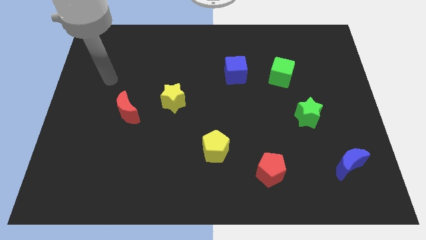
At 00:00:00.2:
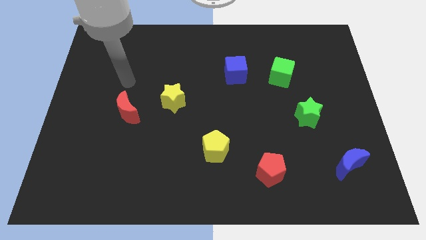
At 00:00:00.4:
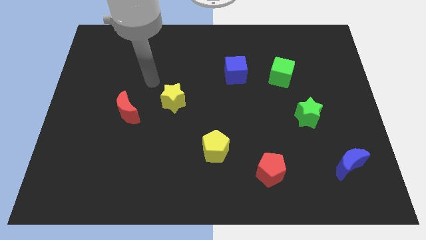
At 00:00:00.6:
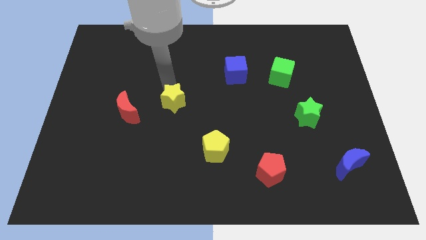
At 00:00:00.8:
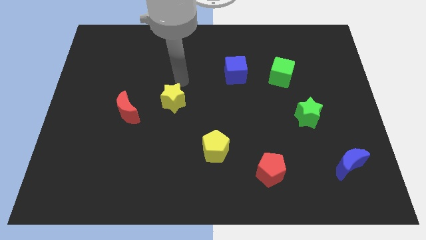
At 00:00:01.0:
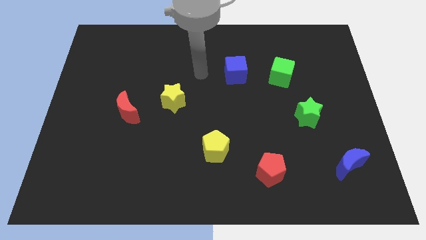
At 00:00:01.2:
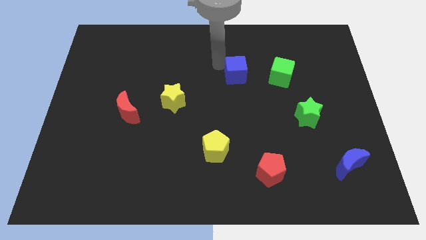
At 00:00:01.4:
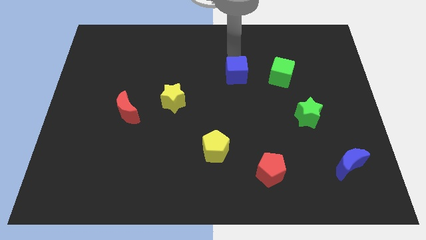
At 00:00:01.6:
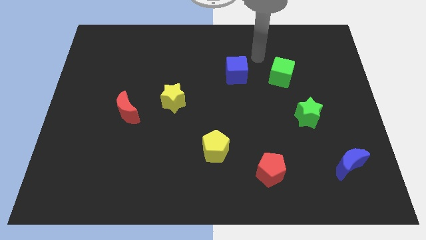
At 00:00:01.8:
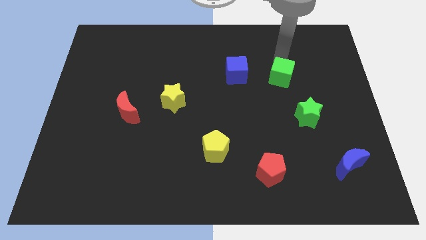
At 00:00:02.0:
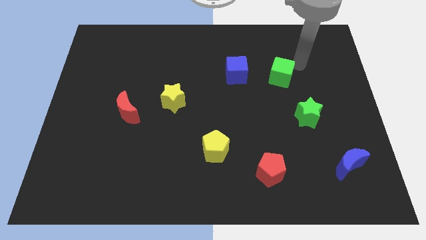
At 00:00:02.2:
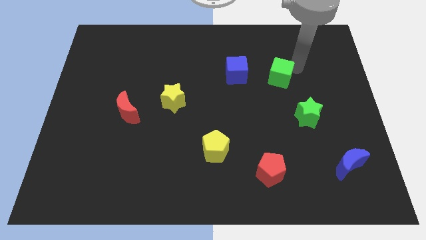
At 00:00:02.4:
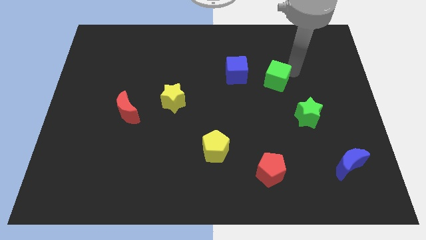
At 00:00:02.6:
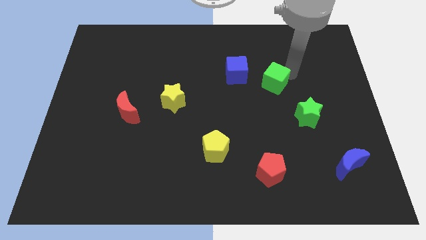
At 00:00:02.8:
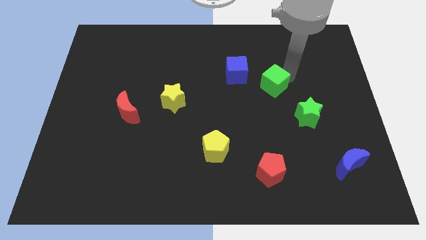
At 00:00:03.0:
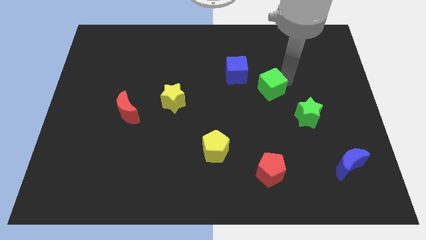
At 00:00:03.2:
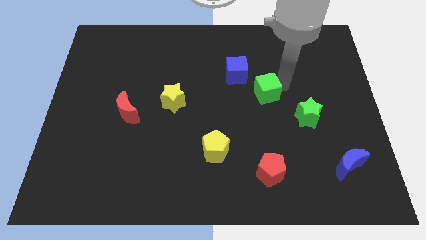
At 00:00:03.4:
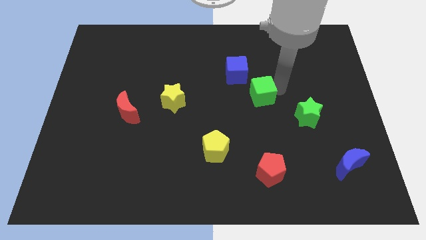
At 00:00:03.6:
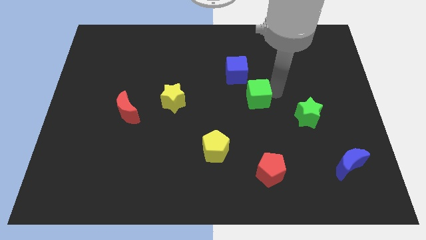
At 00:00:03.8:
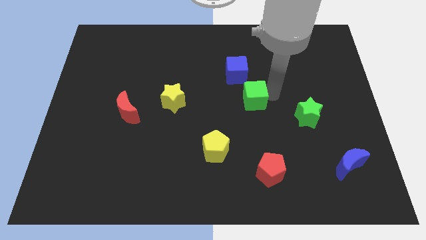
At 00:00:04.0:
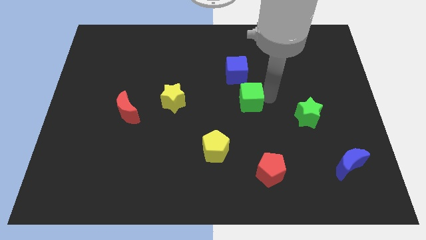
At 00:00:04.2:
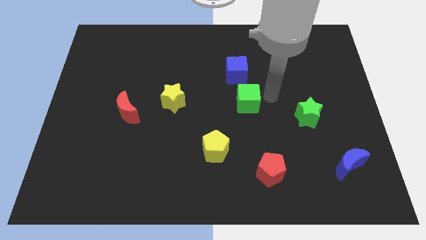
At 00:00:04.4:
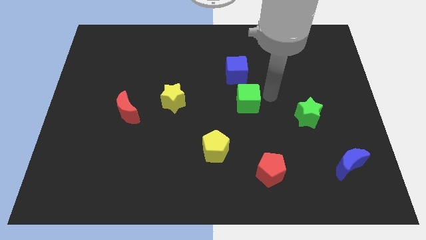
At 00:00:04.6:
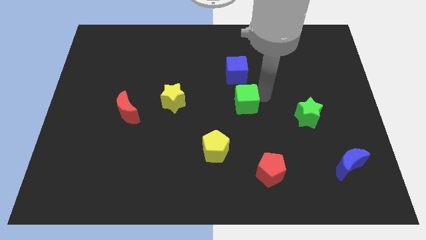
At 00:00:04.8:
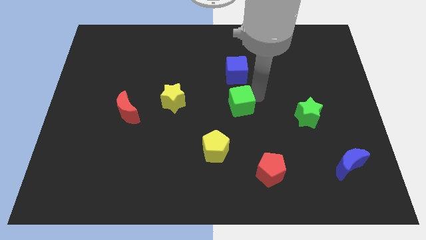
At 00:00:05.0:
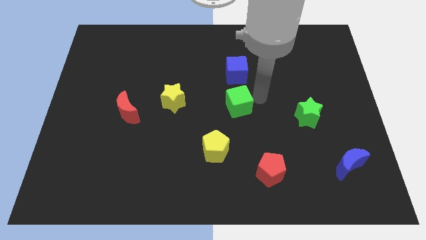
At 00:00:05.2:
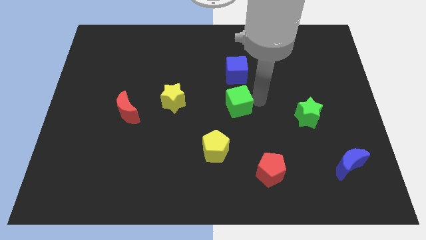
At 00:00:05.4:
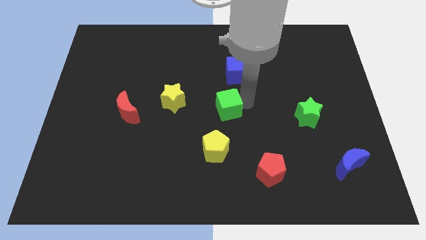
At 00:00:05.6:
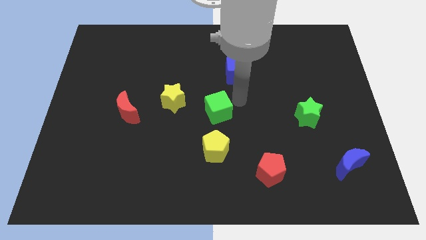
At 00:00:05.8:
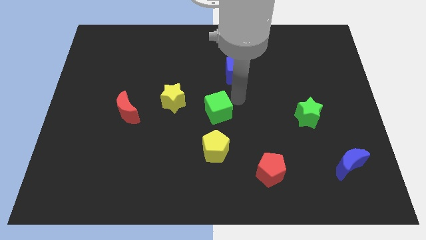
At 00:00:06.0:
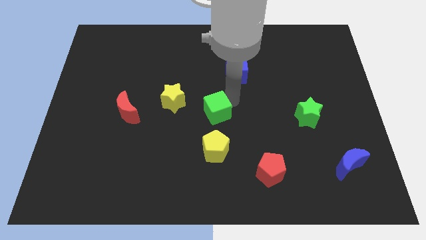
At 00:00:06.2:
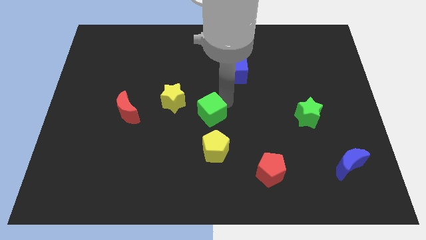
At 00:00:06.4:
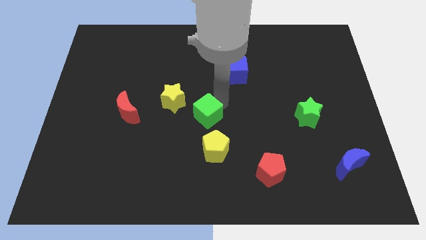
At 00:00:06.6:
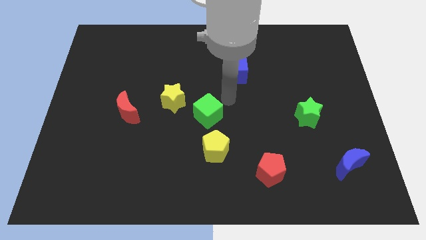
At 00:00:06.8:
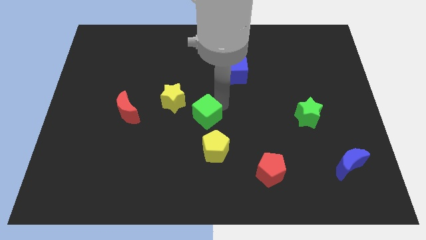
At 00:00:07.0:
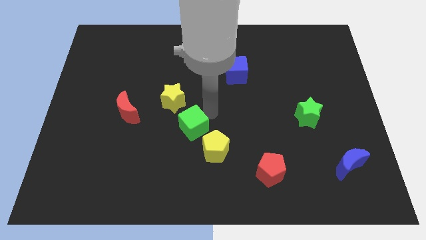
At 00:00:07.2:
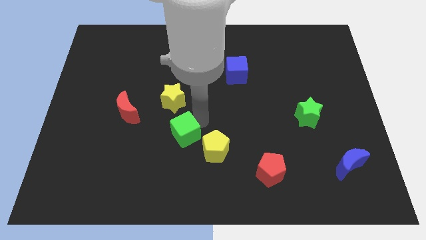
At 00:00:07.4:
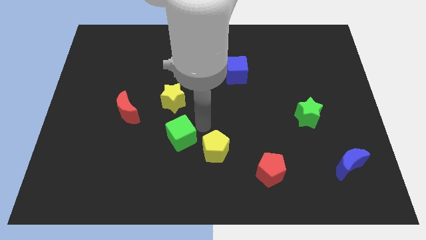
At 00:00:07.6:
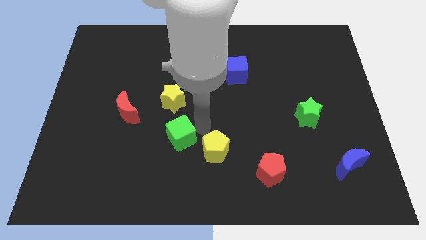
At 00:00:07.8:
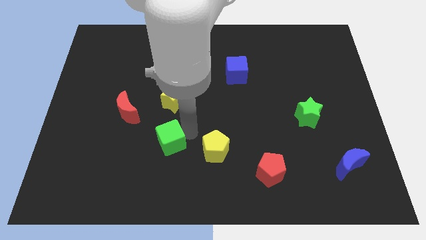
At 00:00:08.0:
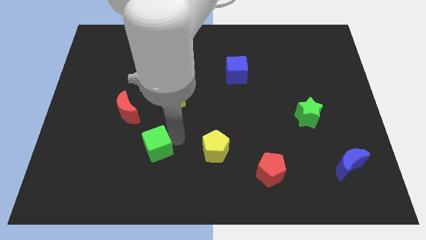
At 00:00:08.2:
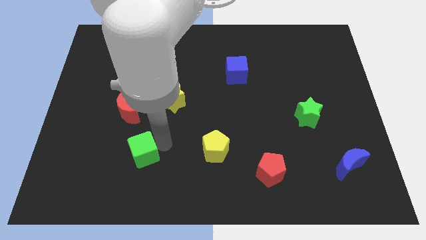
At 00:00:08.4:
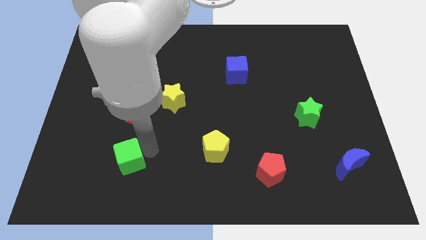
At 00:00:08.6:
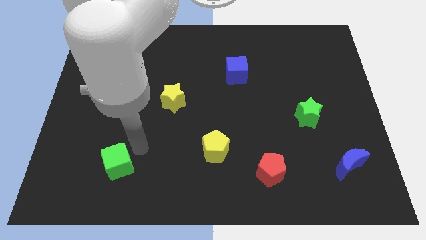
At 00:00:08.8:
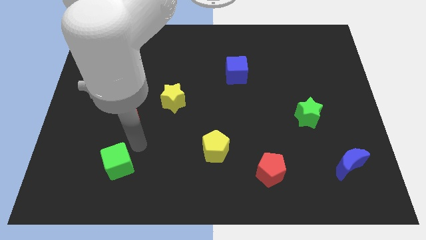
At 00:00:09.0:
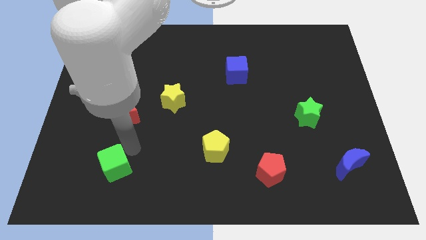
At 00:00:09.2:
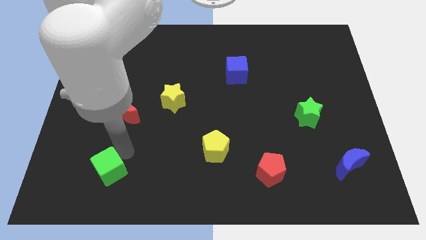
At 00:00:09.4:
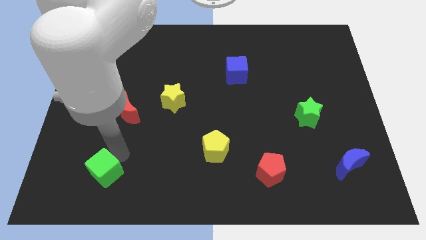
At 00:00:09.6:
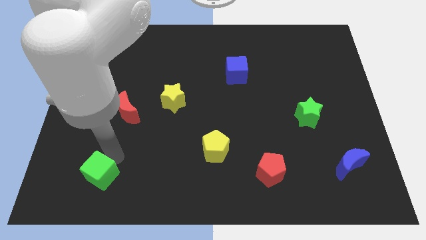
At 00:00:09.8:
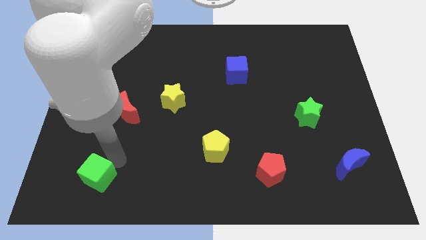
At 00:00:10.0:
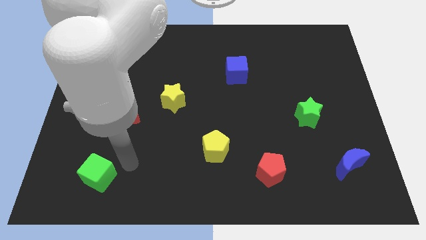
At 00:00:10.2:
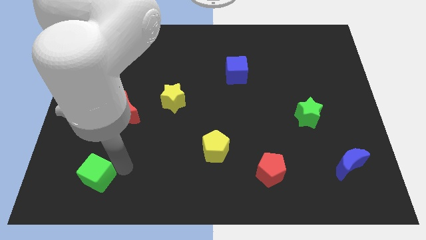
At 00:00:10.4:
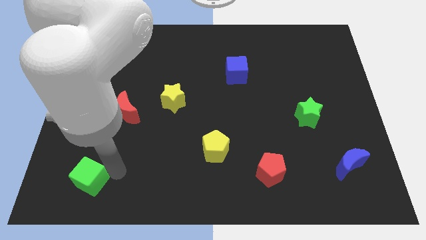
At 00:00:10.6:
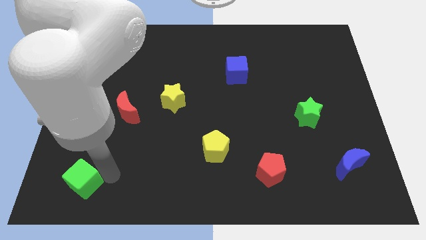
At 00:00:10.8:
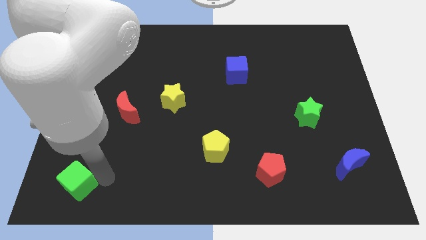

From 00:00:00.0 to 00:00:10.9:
move the green cube to the bottom left of the board

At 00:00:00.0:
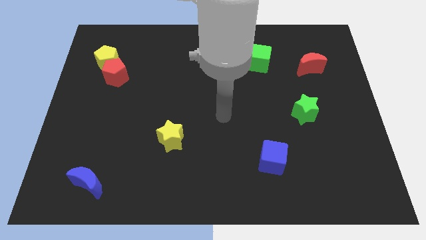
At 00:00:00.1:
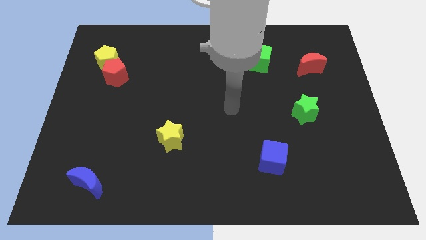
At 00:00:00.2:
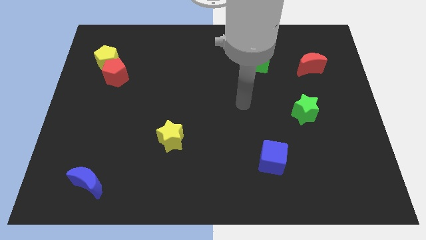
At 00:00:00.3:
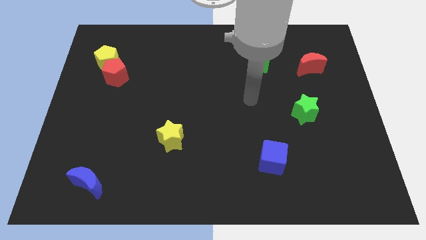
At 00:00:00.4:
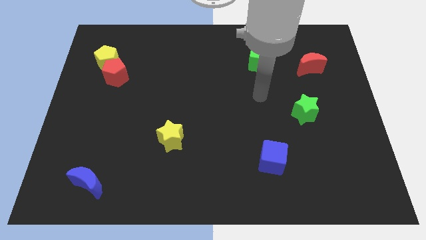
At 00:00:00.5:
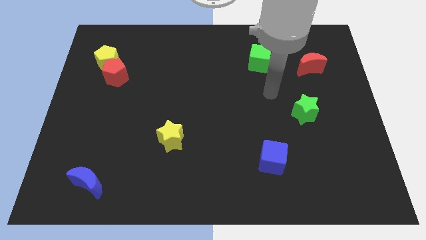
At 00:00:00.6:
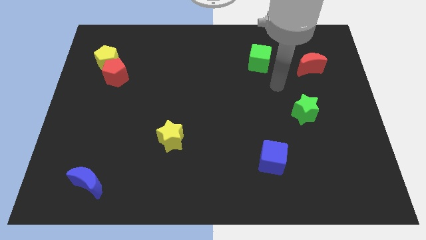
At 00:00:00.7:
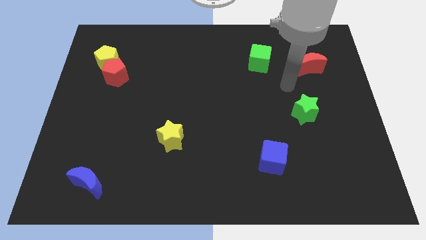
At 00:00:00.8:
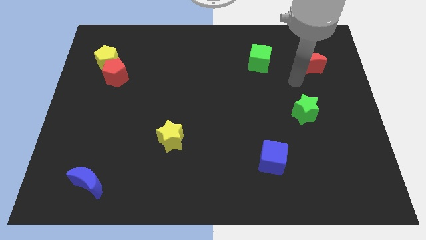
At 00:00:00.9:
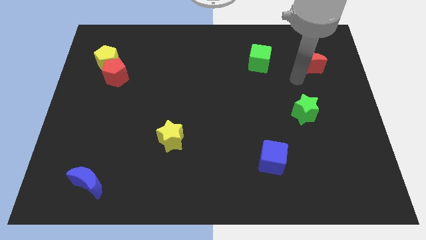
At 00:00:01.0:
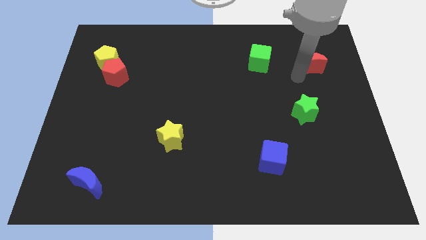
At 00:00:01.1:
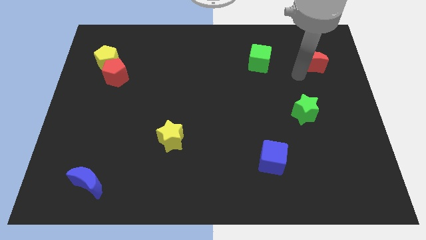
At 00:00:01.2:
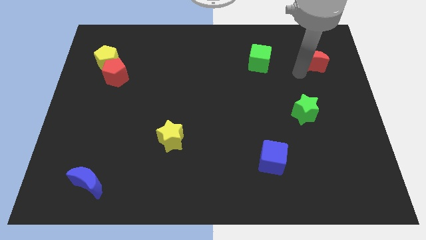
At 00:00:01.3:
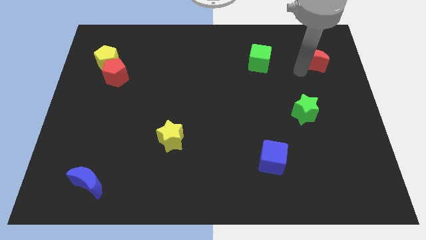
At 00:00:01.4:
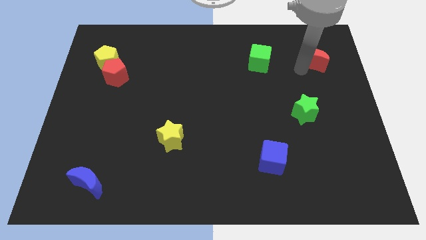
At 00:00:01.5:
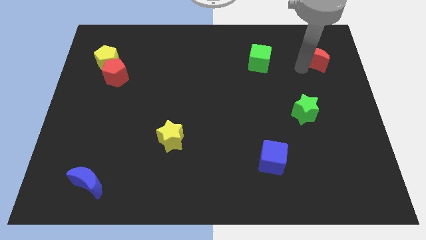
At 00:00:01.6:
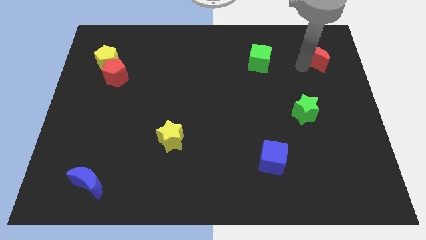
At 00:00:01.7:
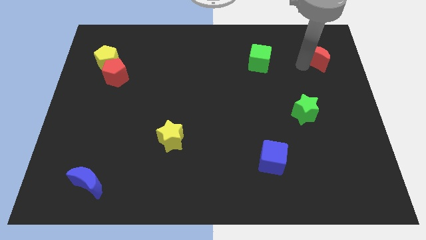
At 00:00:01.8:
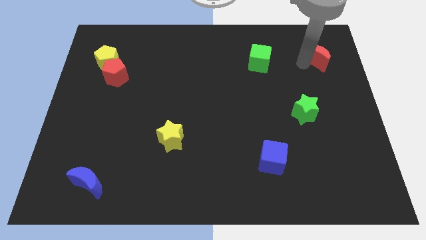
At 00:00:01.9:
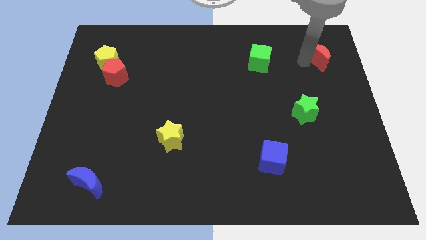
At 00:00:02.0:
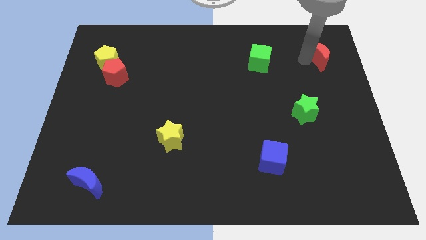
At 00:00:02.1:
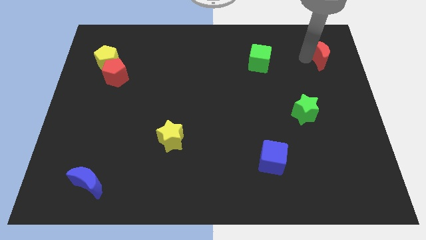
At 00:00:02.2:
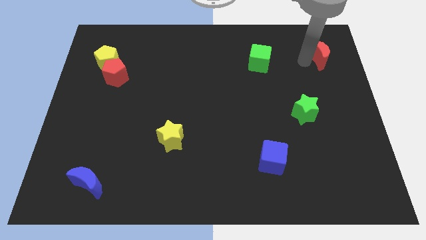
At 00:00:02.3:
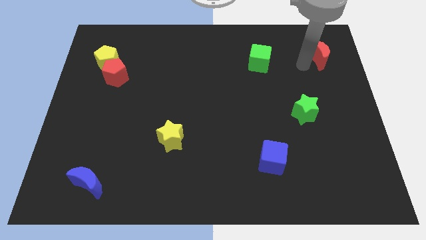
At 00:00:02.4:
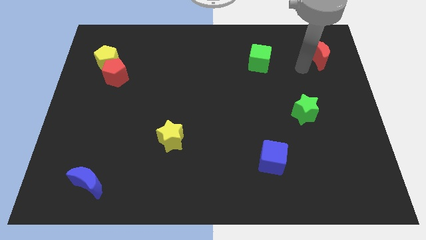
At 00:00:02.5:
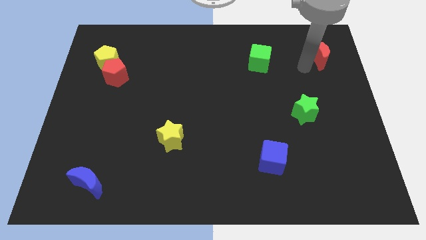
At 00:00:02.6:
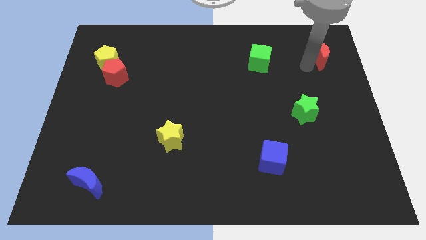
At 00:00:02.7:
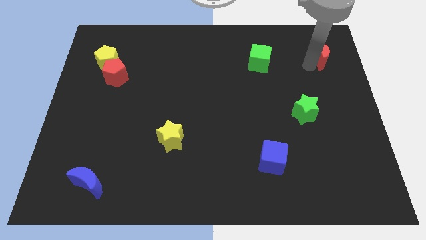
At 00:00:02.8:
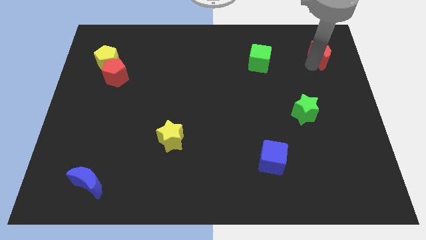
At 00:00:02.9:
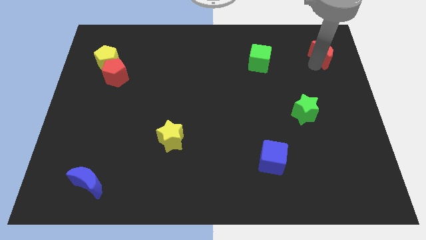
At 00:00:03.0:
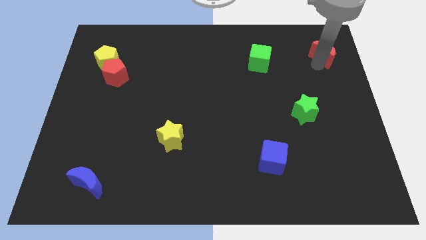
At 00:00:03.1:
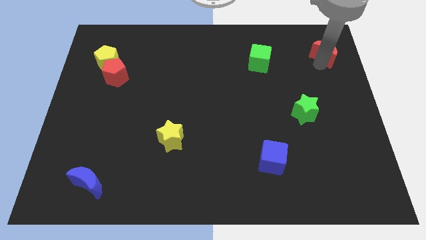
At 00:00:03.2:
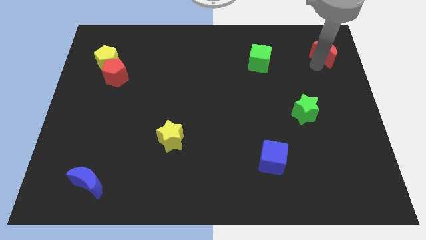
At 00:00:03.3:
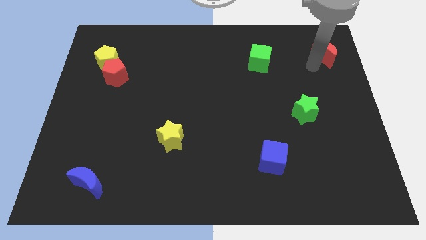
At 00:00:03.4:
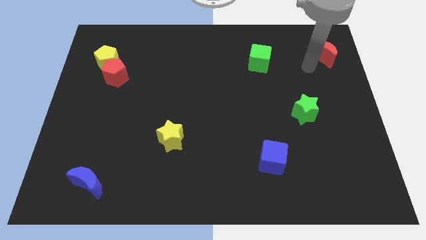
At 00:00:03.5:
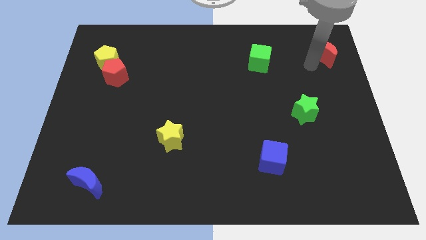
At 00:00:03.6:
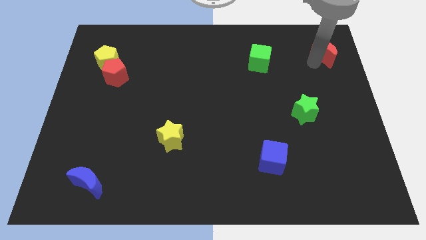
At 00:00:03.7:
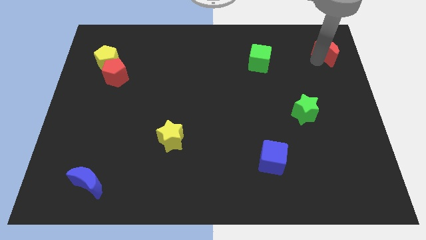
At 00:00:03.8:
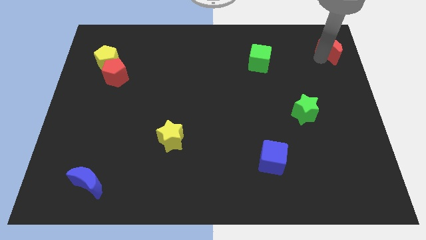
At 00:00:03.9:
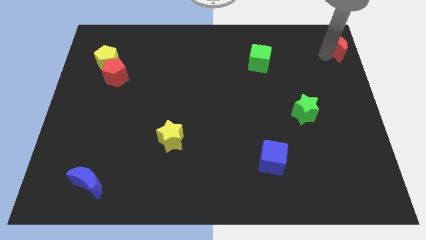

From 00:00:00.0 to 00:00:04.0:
put the red moon to the top right of the board
